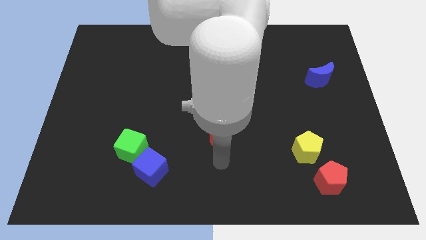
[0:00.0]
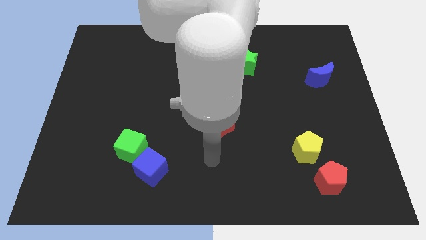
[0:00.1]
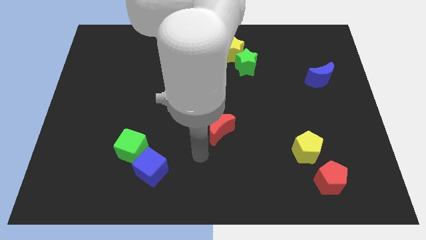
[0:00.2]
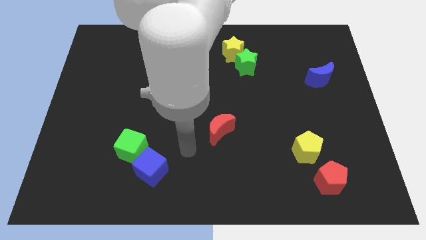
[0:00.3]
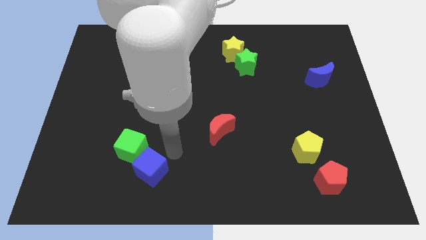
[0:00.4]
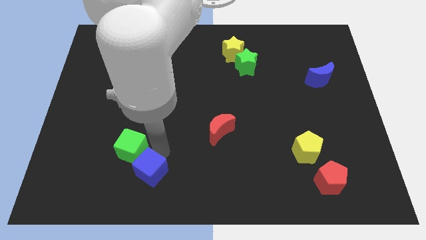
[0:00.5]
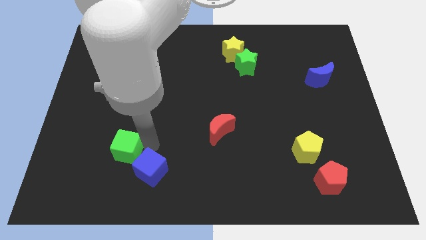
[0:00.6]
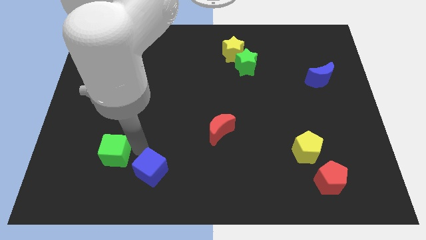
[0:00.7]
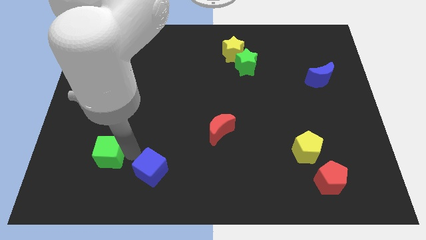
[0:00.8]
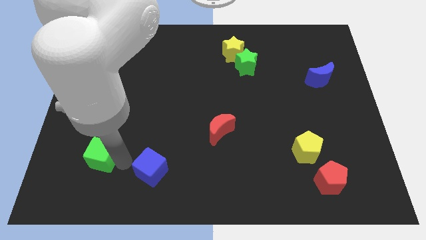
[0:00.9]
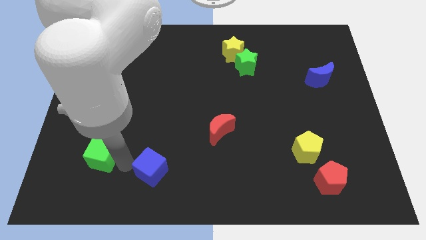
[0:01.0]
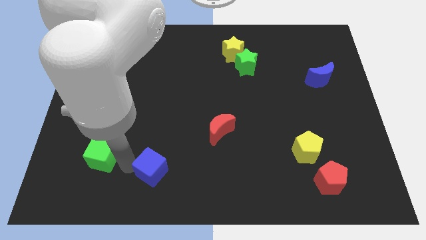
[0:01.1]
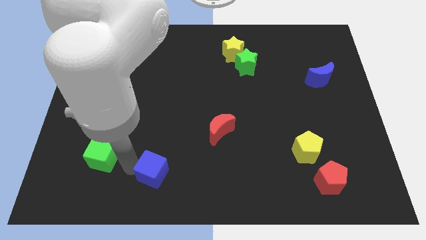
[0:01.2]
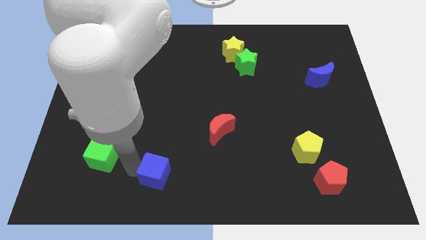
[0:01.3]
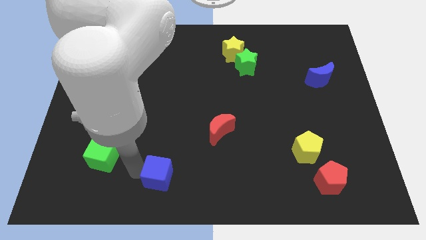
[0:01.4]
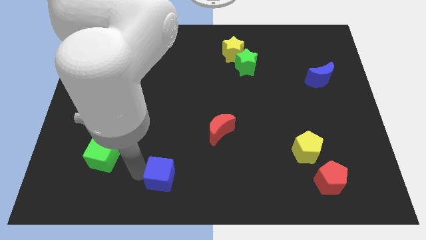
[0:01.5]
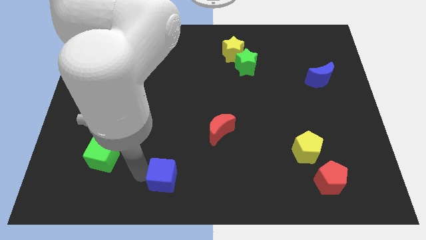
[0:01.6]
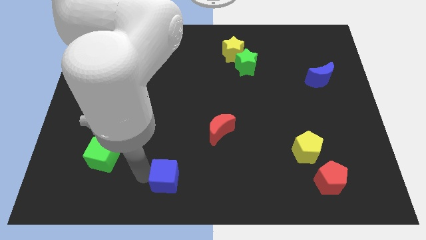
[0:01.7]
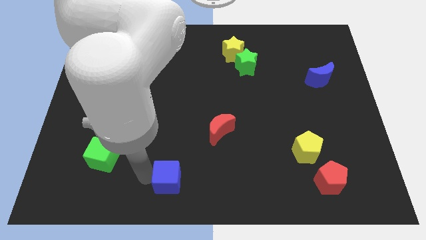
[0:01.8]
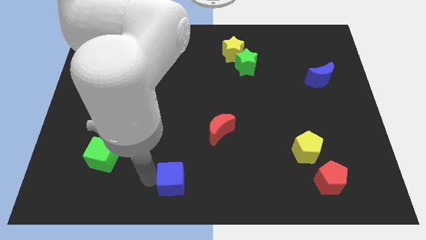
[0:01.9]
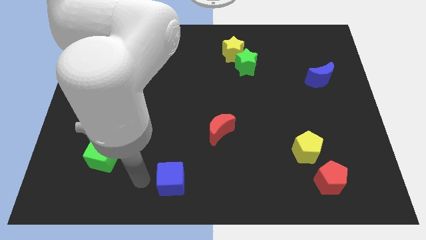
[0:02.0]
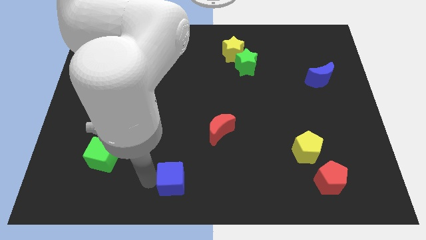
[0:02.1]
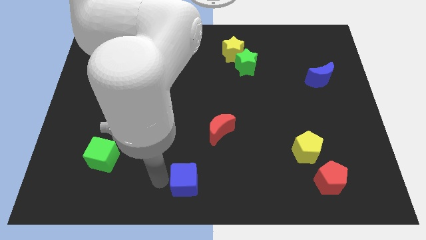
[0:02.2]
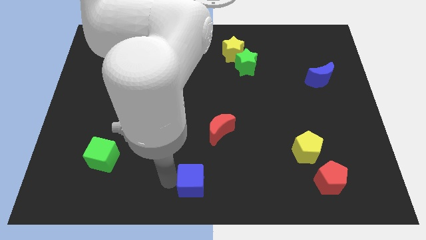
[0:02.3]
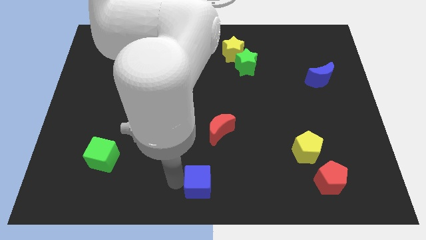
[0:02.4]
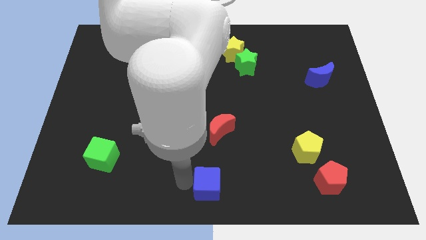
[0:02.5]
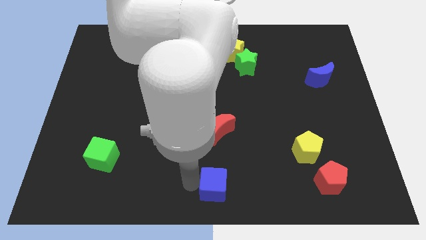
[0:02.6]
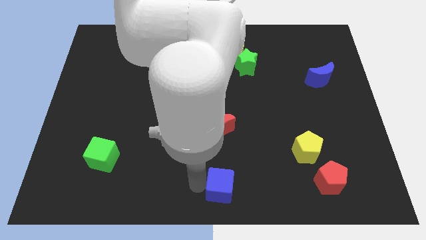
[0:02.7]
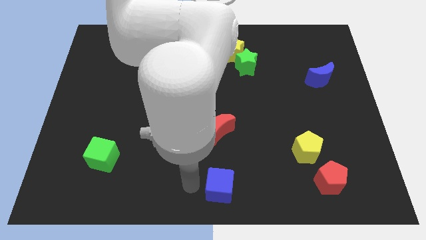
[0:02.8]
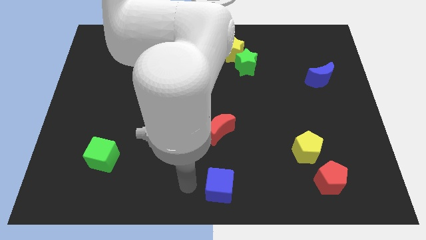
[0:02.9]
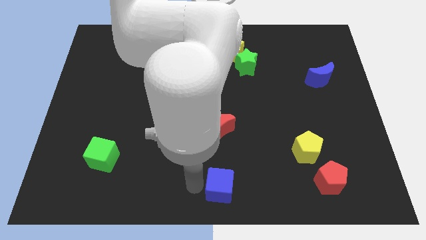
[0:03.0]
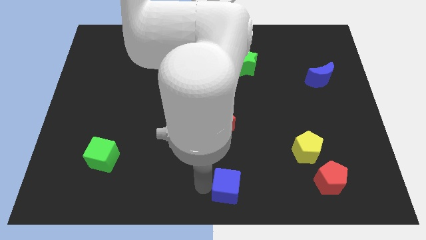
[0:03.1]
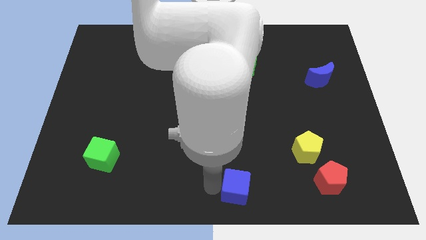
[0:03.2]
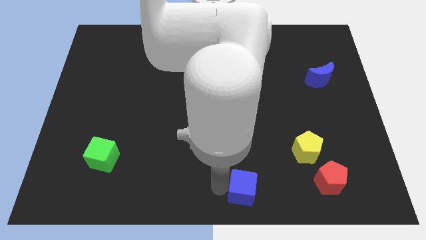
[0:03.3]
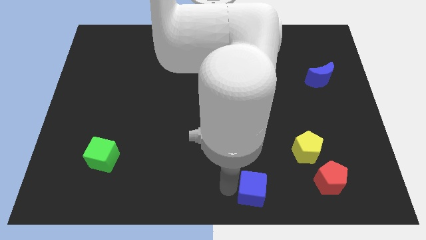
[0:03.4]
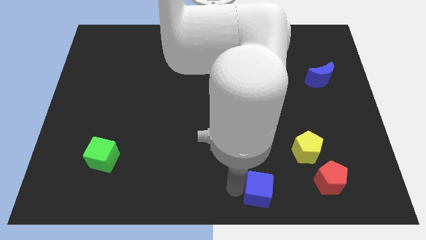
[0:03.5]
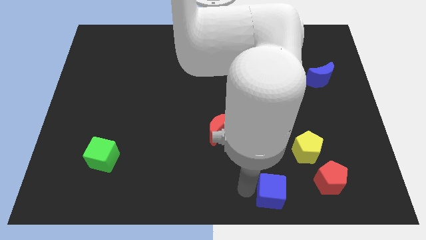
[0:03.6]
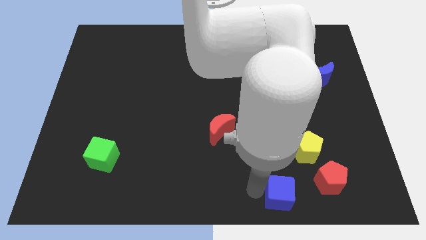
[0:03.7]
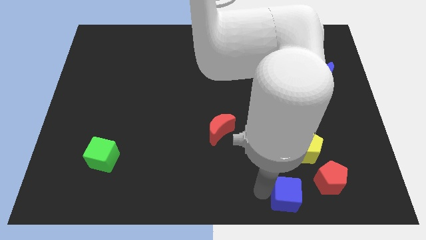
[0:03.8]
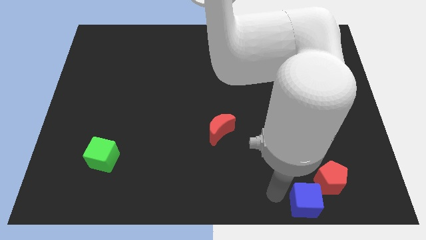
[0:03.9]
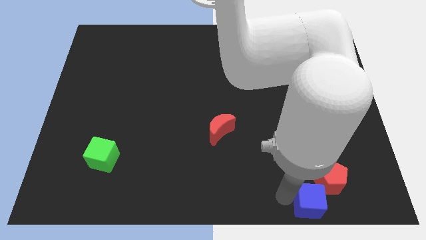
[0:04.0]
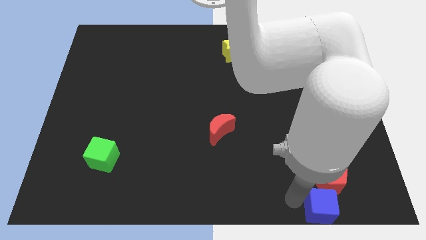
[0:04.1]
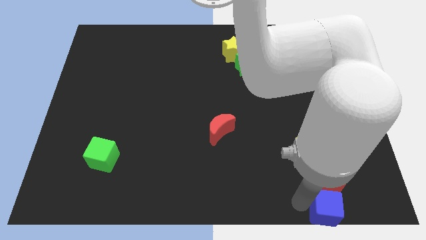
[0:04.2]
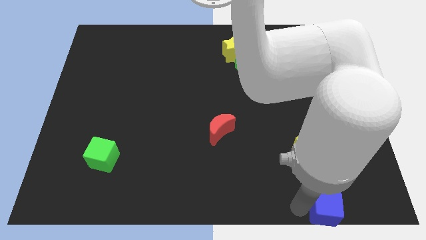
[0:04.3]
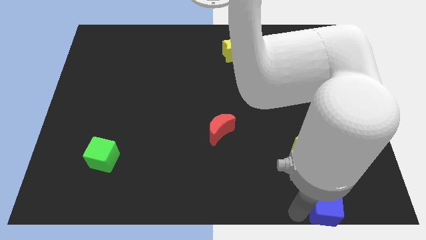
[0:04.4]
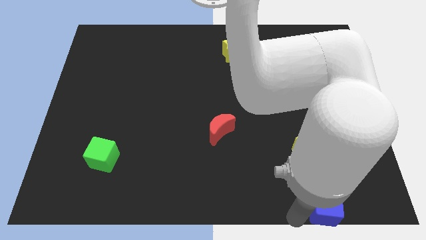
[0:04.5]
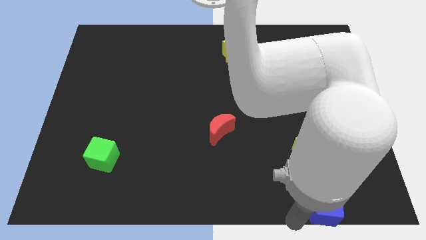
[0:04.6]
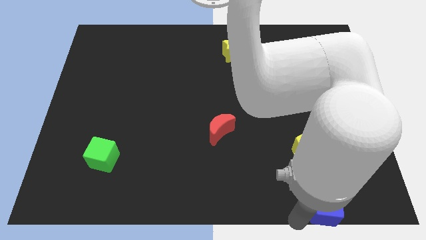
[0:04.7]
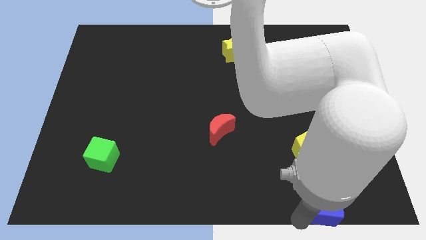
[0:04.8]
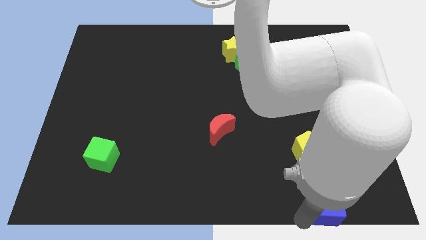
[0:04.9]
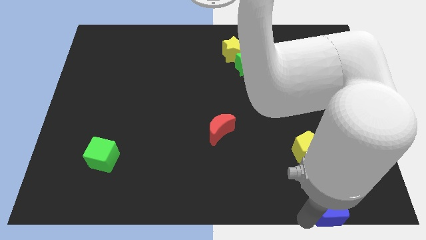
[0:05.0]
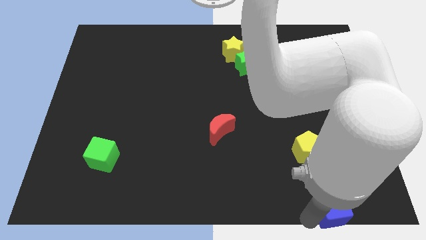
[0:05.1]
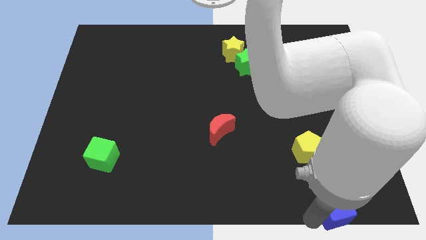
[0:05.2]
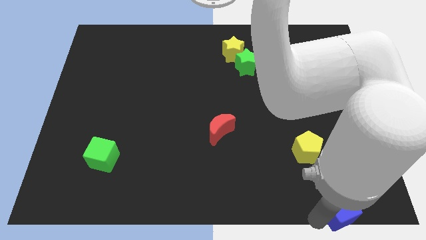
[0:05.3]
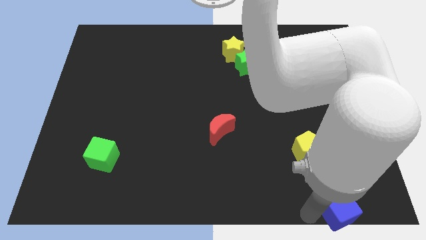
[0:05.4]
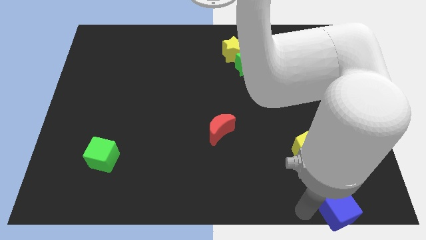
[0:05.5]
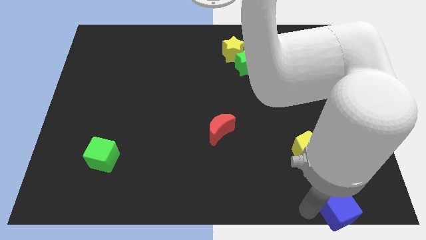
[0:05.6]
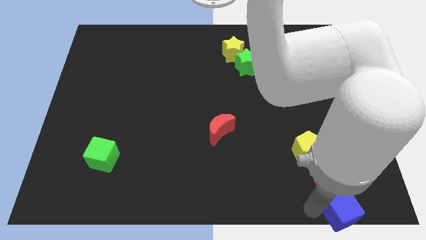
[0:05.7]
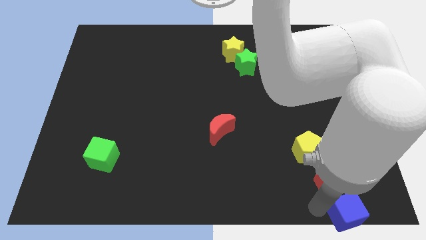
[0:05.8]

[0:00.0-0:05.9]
slide the blue cube to the lower right corner
